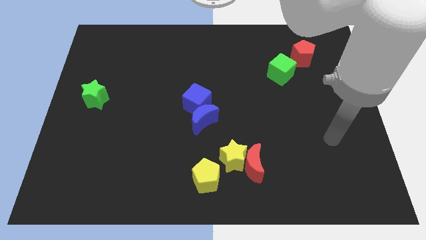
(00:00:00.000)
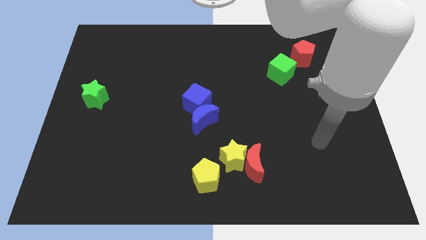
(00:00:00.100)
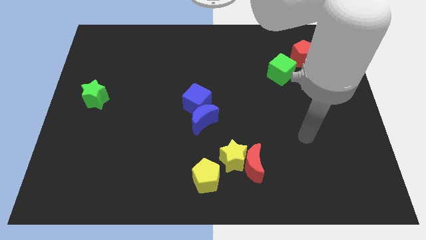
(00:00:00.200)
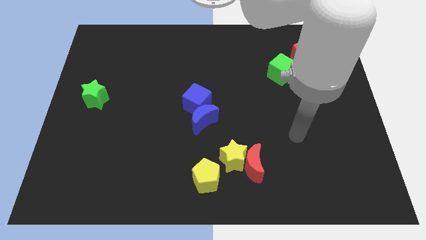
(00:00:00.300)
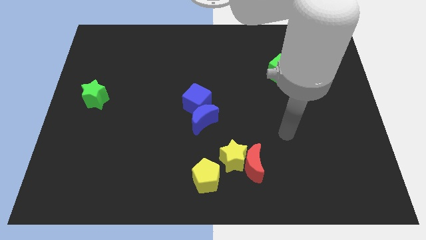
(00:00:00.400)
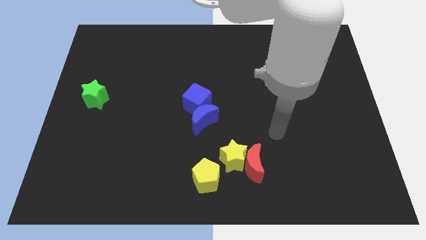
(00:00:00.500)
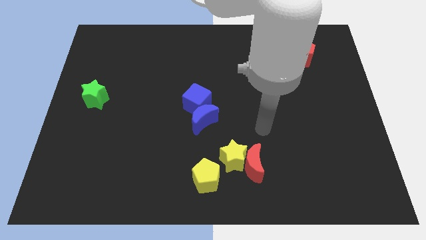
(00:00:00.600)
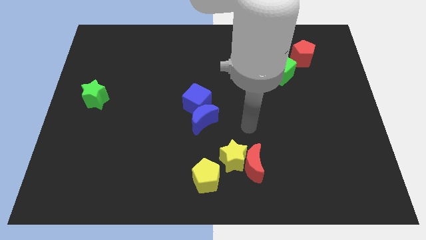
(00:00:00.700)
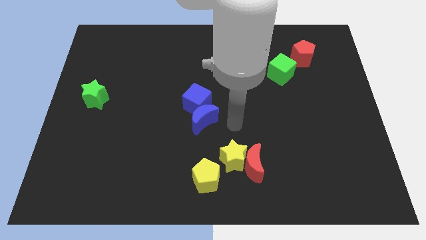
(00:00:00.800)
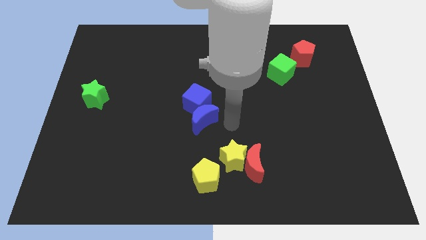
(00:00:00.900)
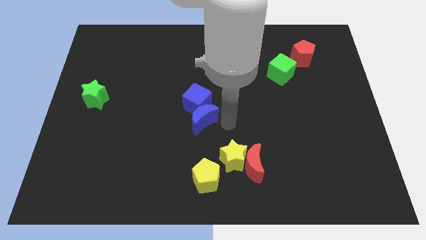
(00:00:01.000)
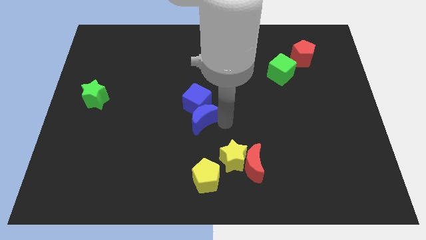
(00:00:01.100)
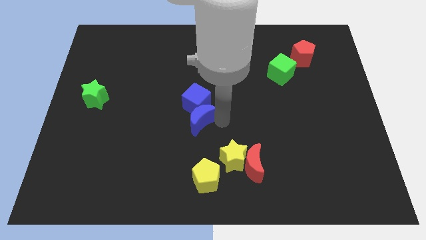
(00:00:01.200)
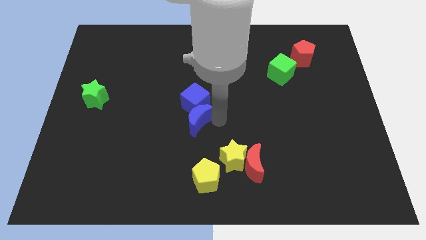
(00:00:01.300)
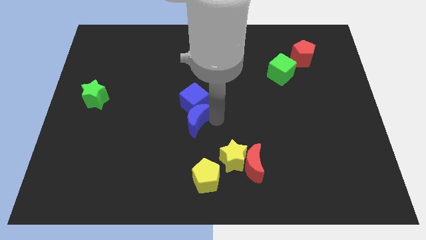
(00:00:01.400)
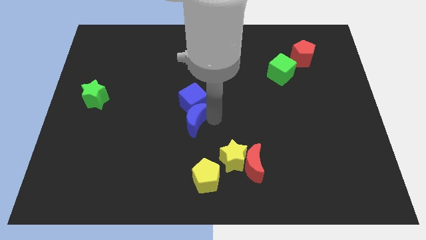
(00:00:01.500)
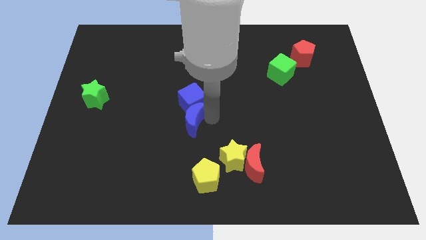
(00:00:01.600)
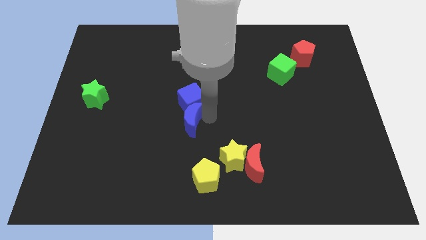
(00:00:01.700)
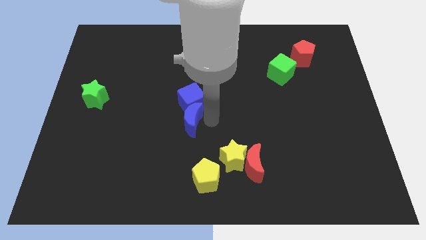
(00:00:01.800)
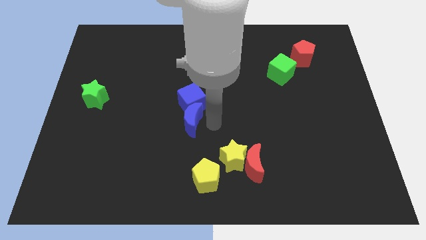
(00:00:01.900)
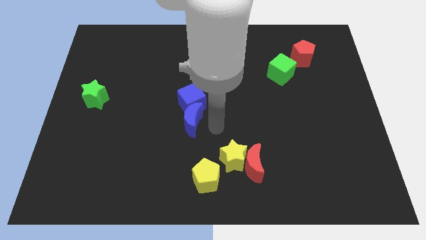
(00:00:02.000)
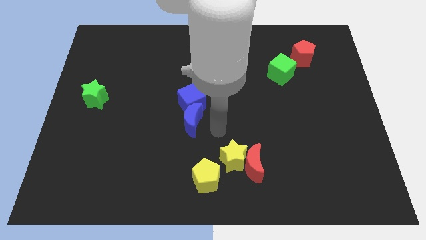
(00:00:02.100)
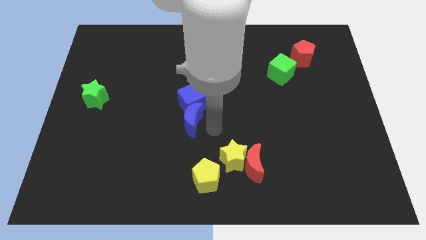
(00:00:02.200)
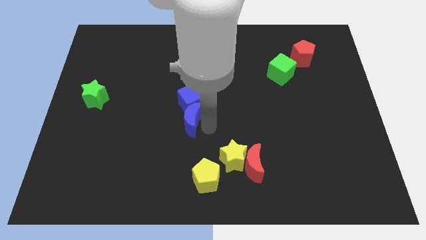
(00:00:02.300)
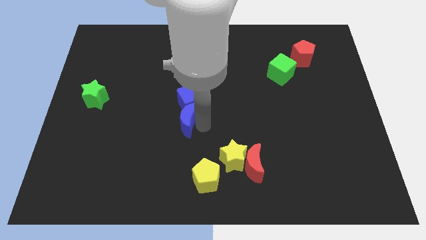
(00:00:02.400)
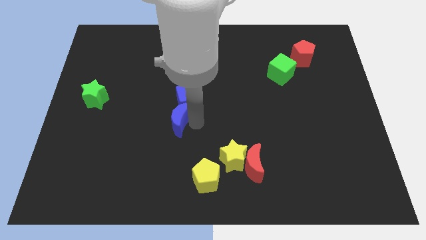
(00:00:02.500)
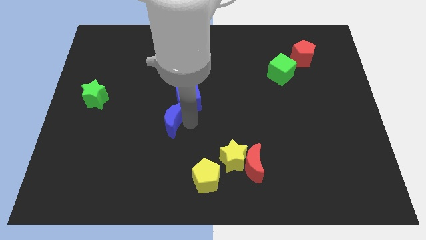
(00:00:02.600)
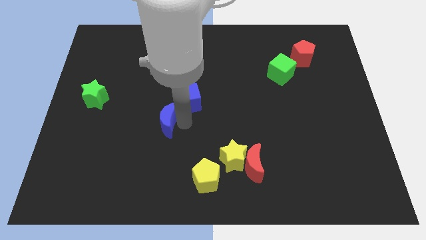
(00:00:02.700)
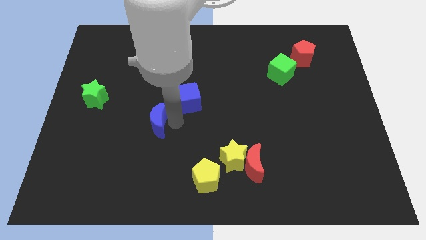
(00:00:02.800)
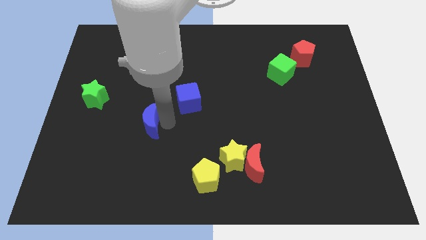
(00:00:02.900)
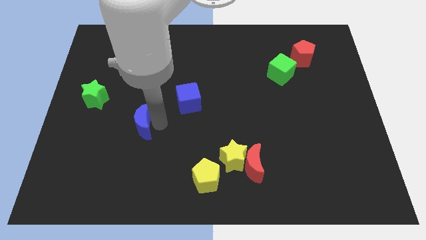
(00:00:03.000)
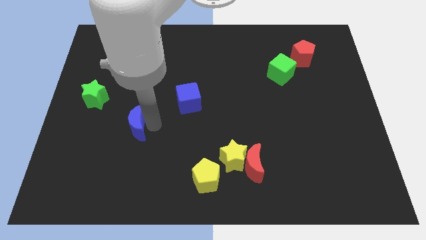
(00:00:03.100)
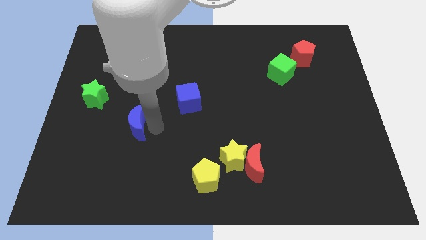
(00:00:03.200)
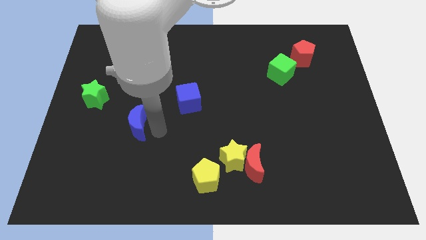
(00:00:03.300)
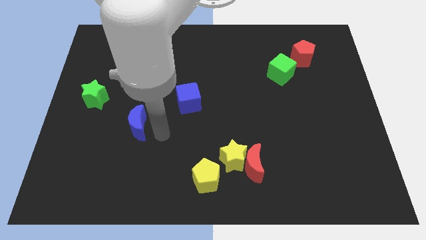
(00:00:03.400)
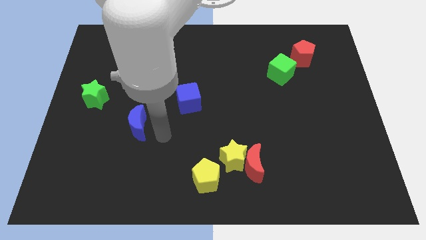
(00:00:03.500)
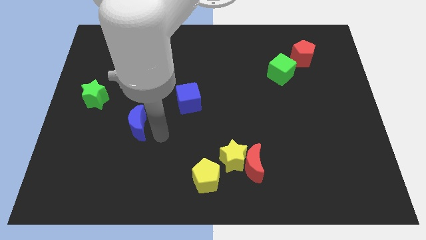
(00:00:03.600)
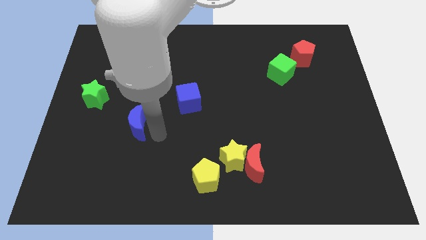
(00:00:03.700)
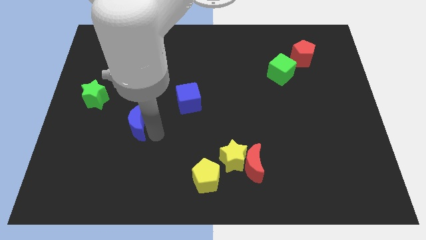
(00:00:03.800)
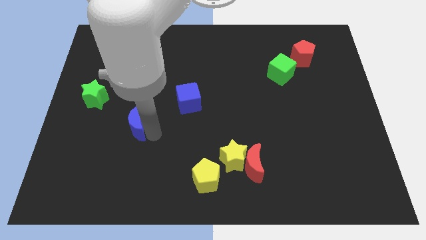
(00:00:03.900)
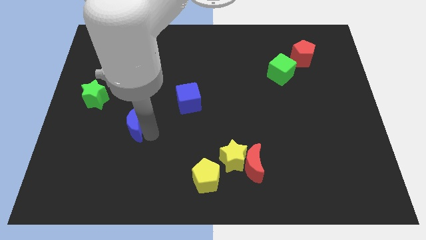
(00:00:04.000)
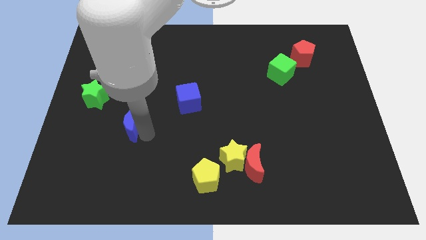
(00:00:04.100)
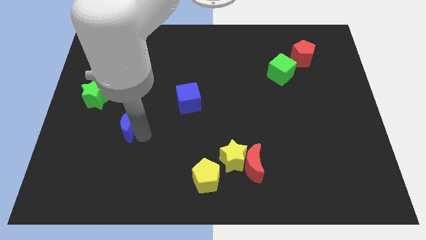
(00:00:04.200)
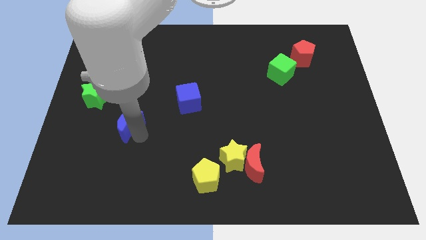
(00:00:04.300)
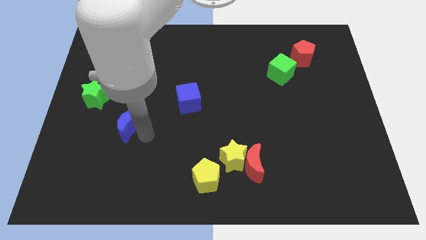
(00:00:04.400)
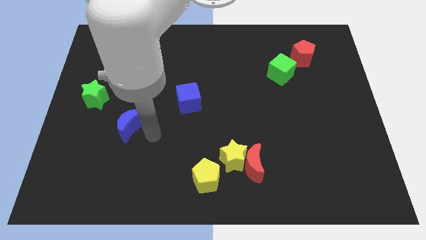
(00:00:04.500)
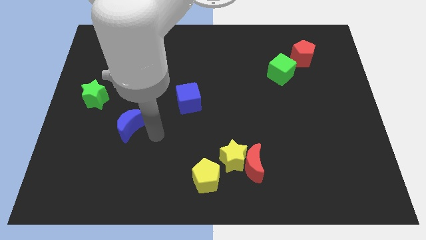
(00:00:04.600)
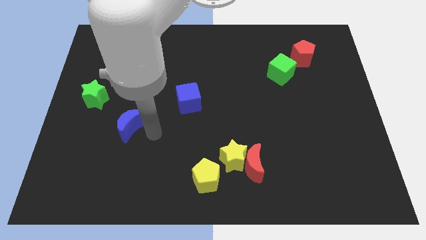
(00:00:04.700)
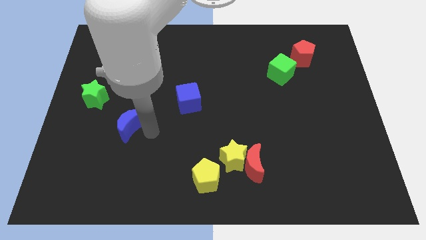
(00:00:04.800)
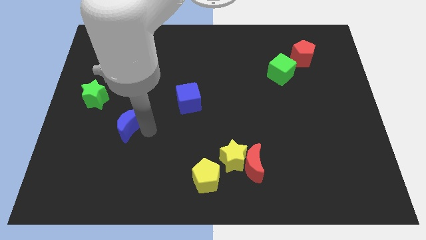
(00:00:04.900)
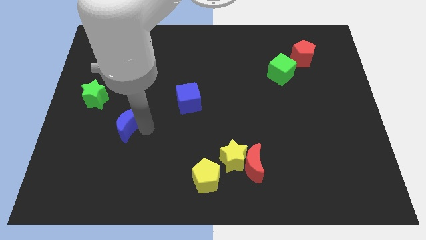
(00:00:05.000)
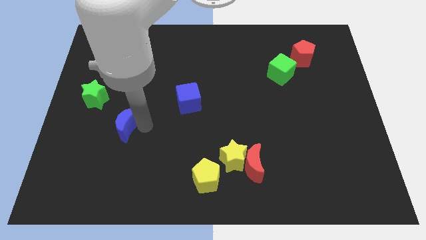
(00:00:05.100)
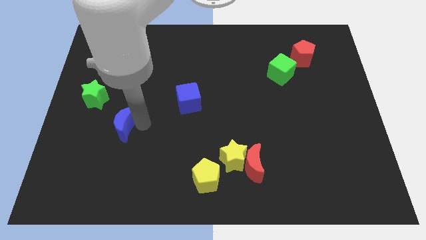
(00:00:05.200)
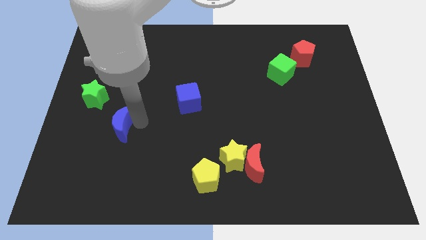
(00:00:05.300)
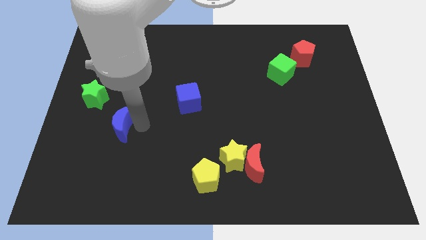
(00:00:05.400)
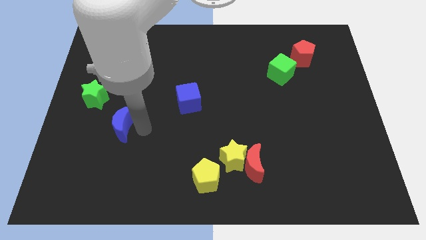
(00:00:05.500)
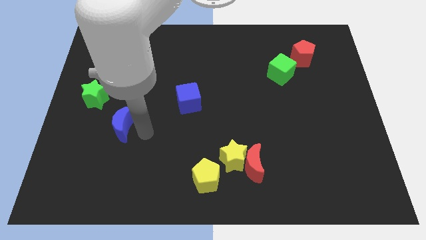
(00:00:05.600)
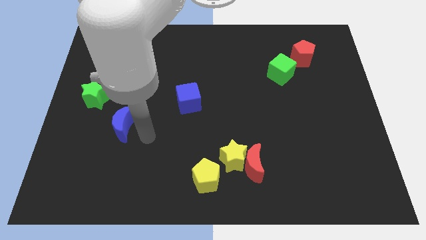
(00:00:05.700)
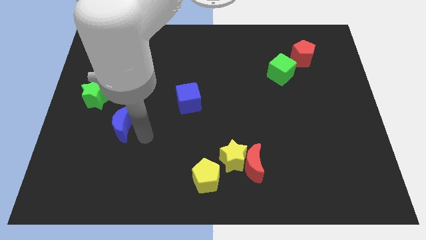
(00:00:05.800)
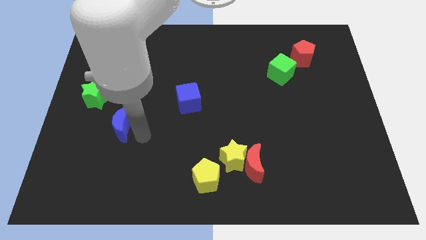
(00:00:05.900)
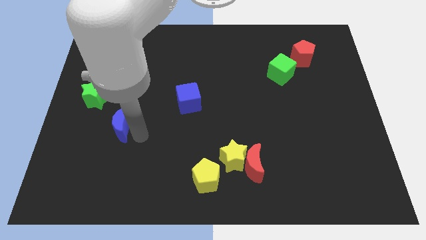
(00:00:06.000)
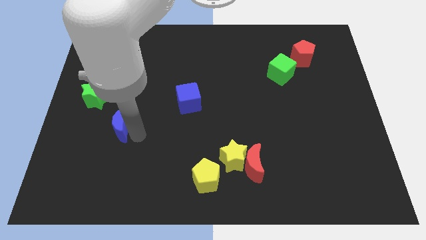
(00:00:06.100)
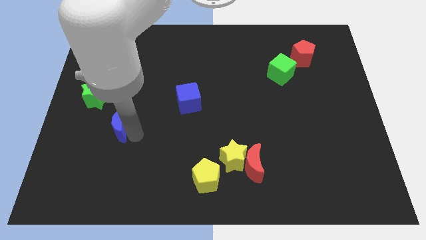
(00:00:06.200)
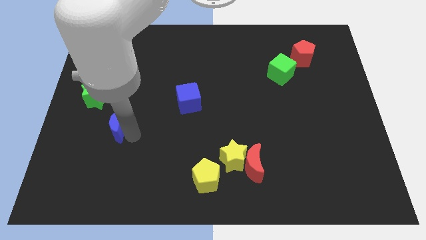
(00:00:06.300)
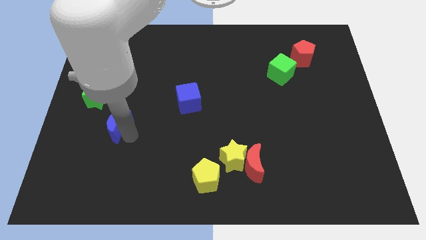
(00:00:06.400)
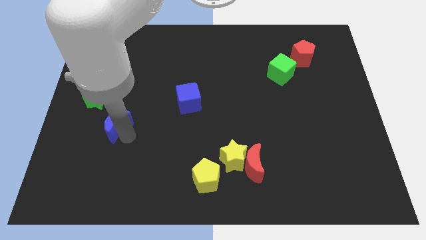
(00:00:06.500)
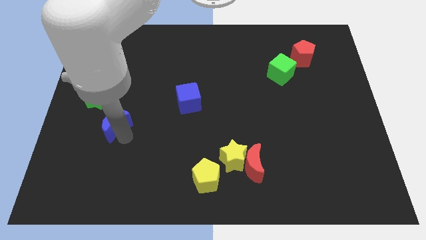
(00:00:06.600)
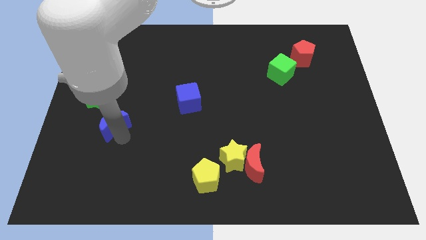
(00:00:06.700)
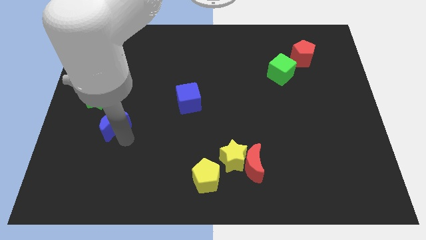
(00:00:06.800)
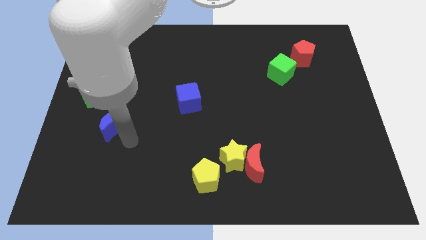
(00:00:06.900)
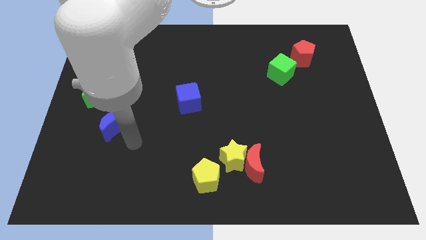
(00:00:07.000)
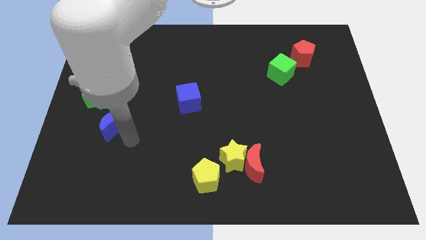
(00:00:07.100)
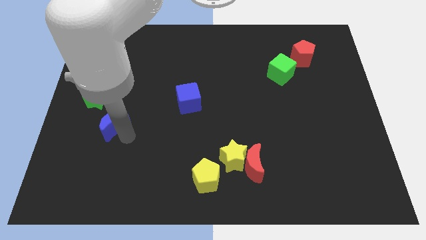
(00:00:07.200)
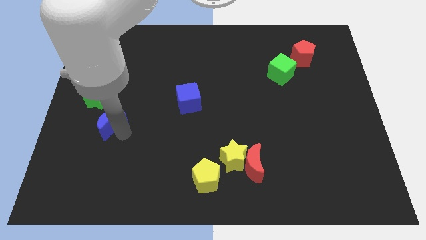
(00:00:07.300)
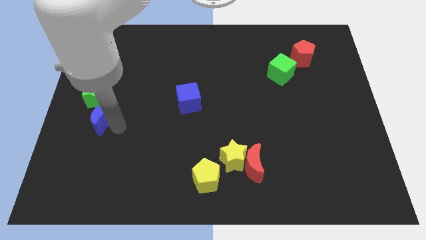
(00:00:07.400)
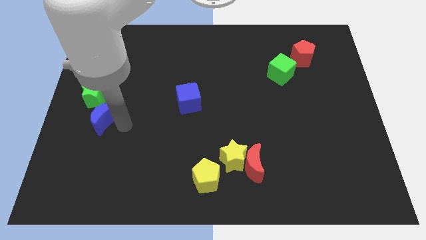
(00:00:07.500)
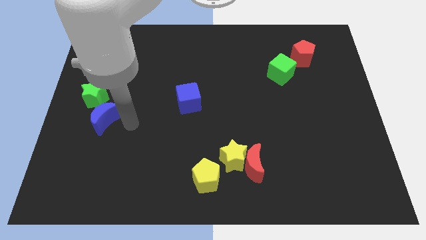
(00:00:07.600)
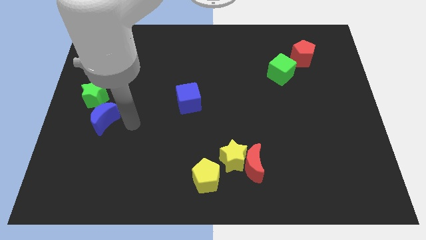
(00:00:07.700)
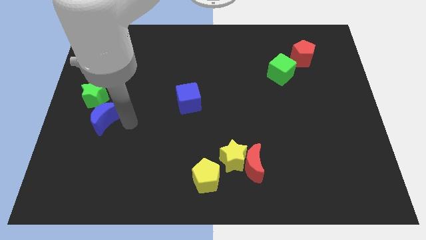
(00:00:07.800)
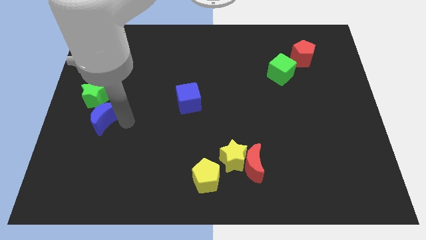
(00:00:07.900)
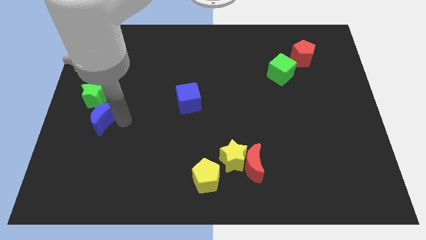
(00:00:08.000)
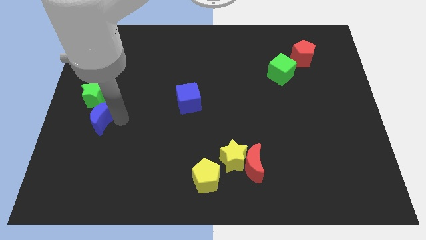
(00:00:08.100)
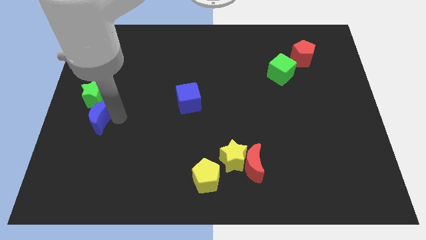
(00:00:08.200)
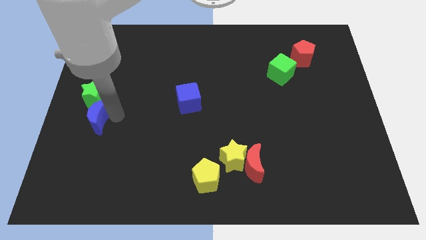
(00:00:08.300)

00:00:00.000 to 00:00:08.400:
put the blue moon to the center left
